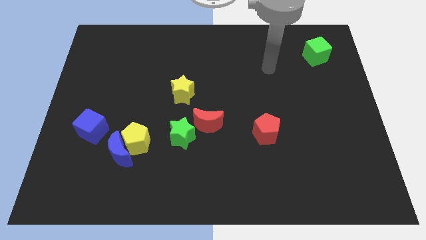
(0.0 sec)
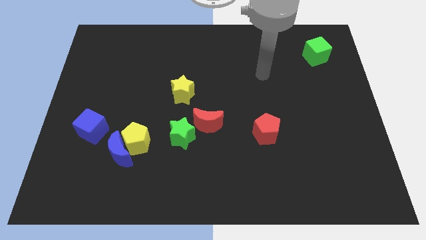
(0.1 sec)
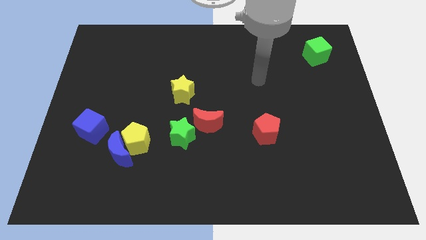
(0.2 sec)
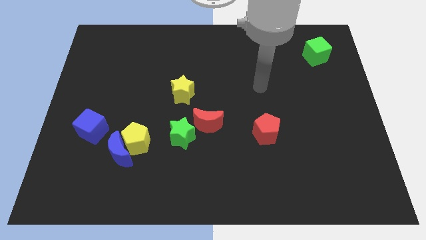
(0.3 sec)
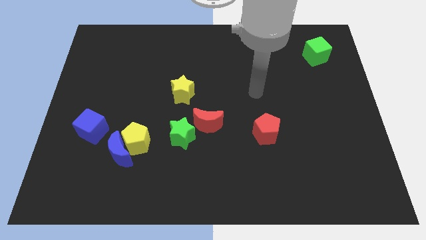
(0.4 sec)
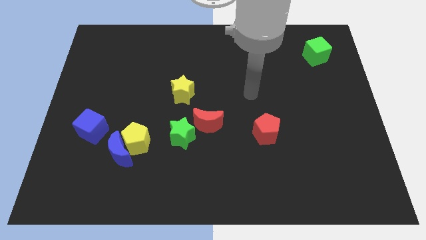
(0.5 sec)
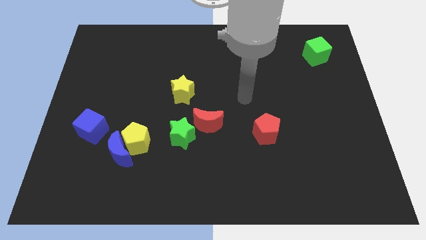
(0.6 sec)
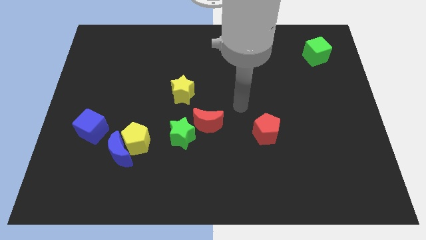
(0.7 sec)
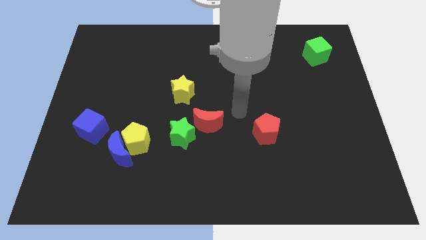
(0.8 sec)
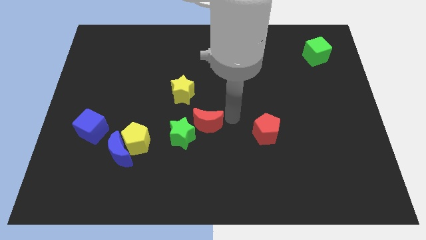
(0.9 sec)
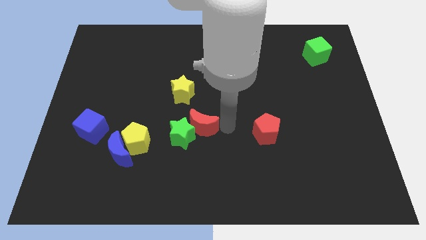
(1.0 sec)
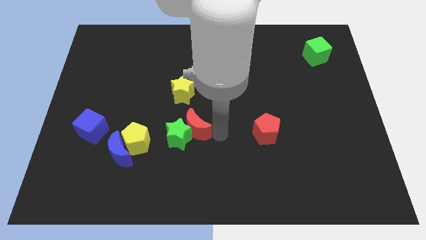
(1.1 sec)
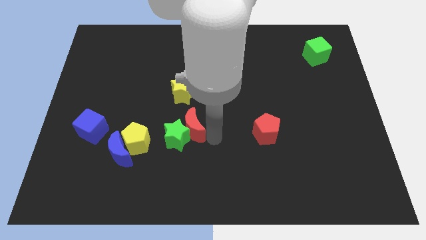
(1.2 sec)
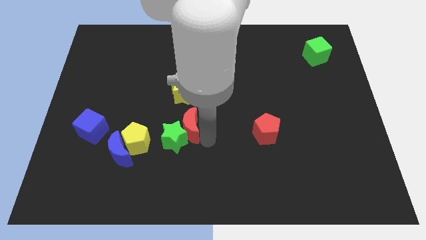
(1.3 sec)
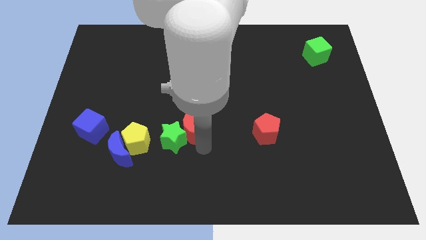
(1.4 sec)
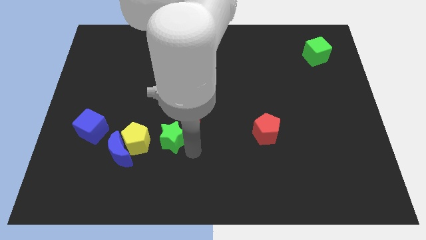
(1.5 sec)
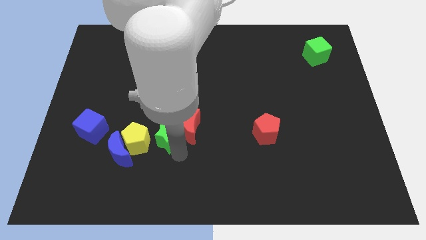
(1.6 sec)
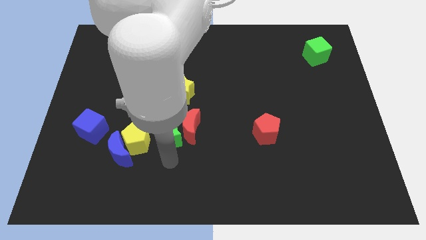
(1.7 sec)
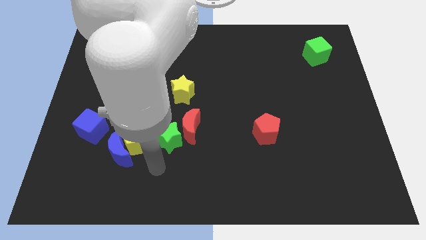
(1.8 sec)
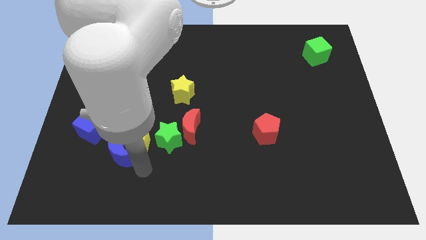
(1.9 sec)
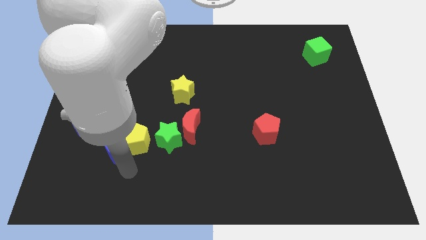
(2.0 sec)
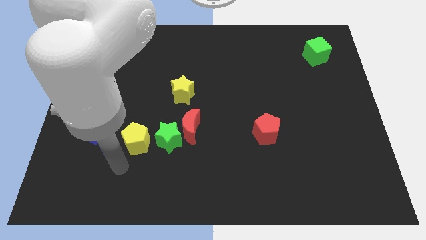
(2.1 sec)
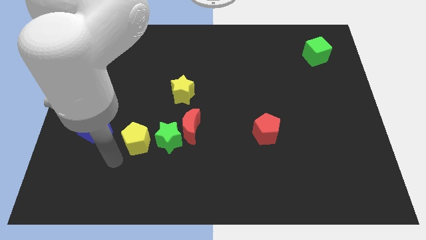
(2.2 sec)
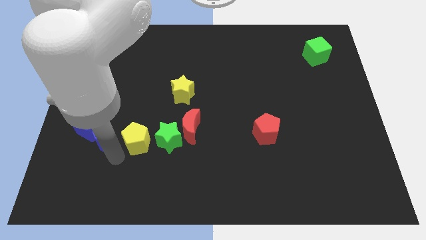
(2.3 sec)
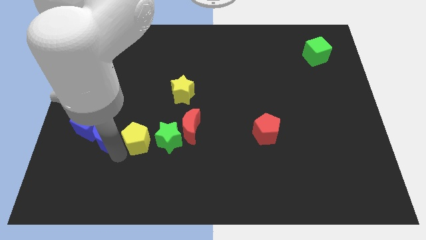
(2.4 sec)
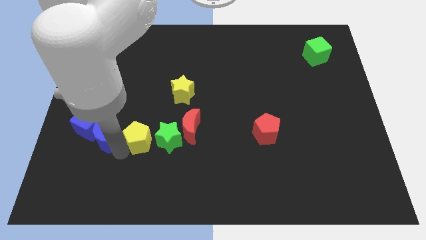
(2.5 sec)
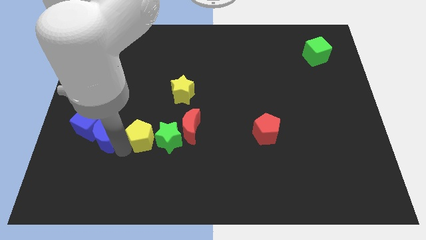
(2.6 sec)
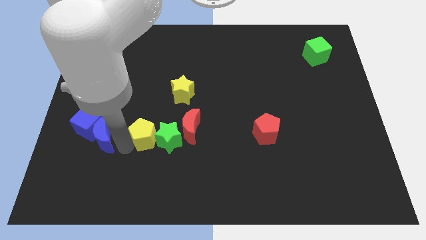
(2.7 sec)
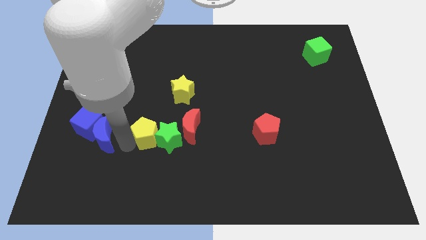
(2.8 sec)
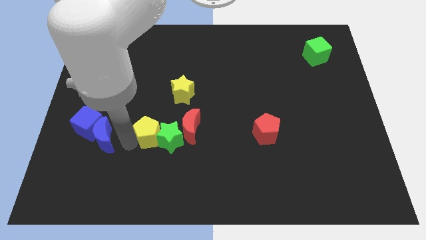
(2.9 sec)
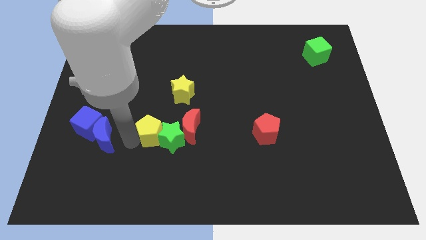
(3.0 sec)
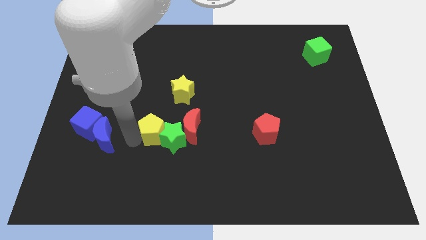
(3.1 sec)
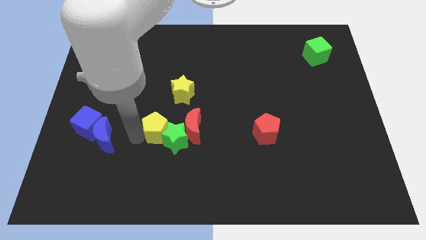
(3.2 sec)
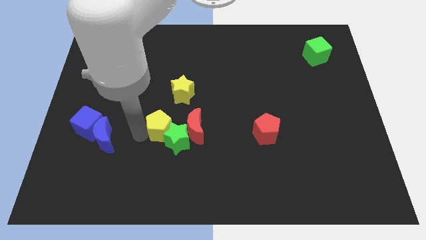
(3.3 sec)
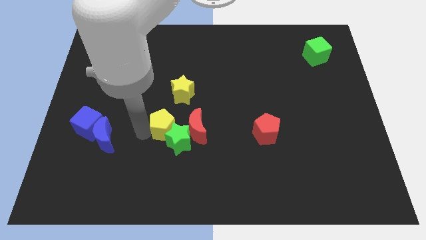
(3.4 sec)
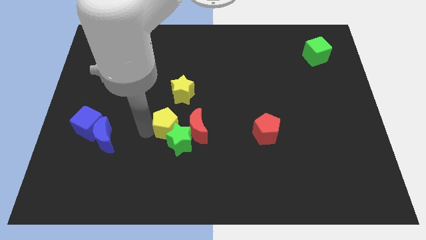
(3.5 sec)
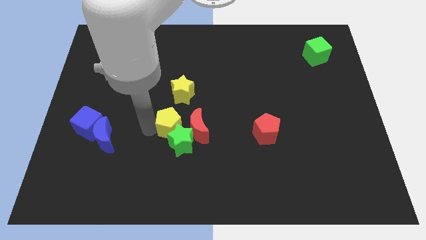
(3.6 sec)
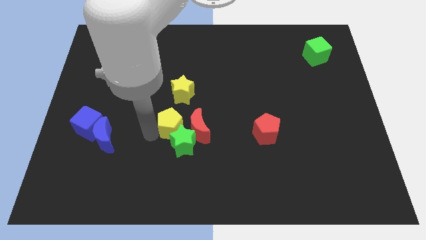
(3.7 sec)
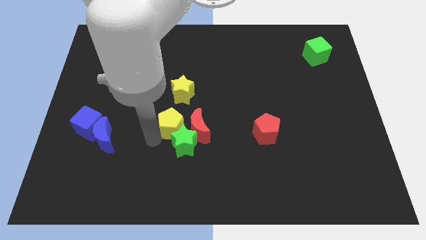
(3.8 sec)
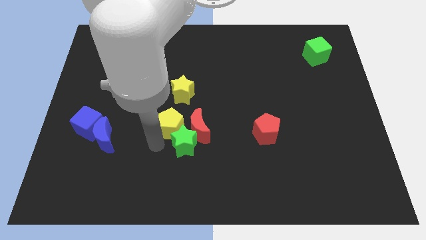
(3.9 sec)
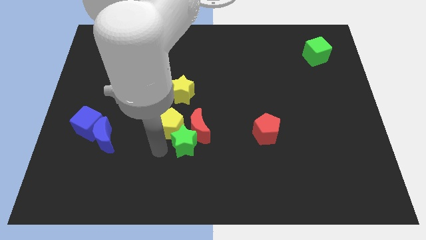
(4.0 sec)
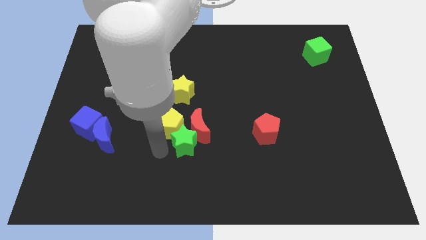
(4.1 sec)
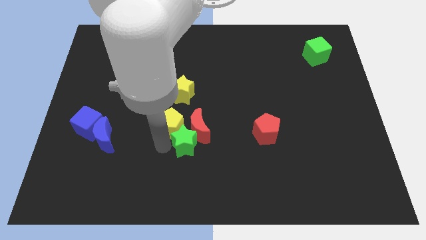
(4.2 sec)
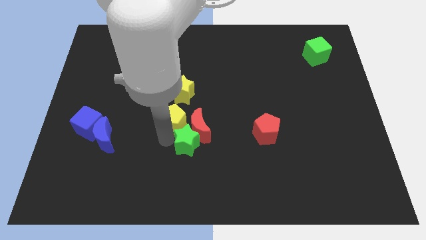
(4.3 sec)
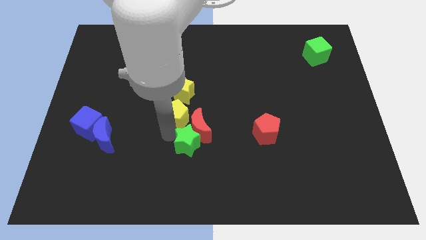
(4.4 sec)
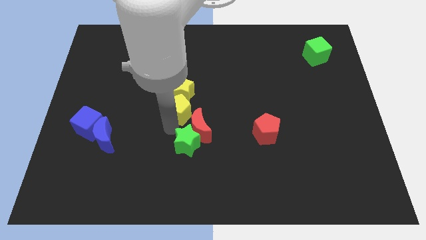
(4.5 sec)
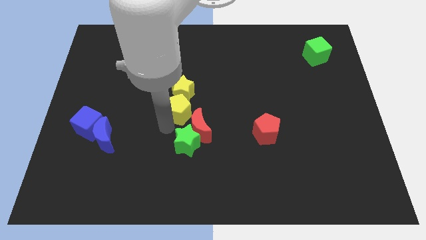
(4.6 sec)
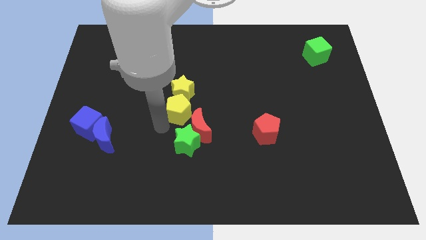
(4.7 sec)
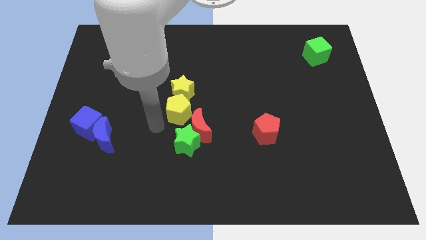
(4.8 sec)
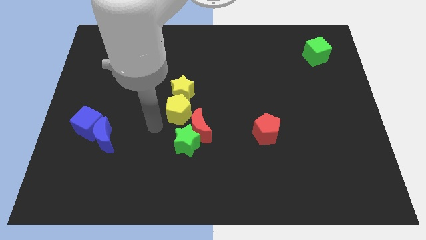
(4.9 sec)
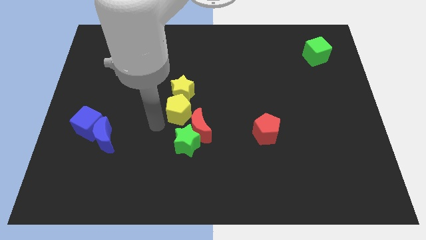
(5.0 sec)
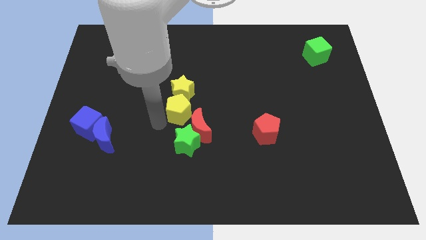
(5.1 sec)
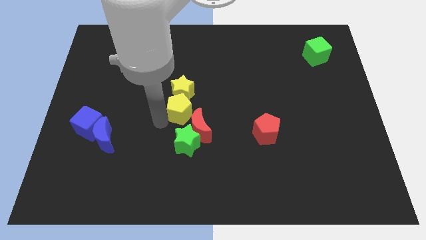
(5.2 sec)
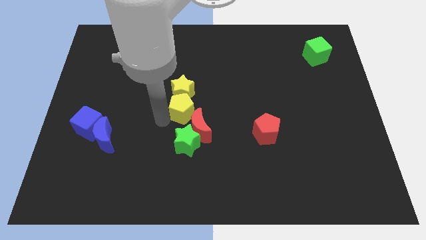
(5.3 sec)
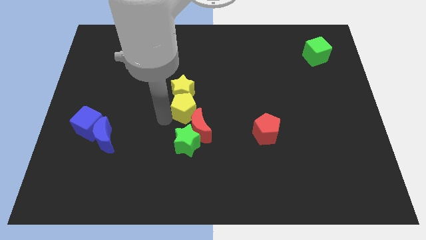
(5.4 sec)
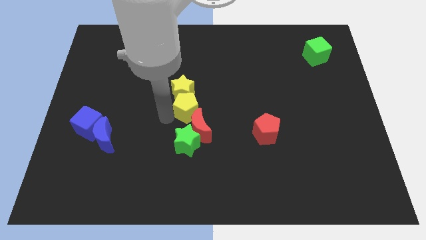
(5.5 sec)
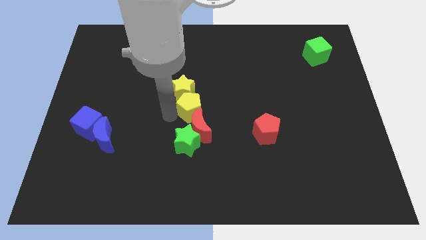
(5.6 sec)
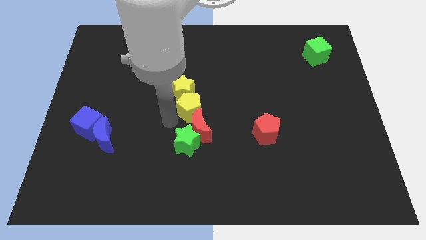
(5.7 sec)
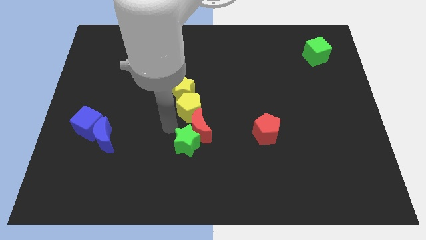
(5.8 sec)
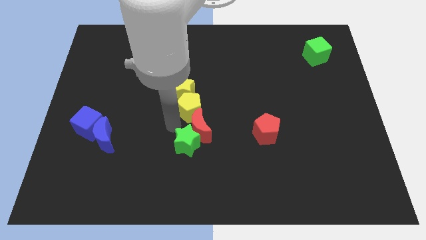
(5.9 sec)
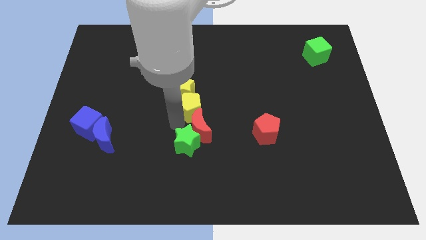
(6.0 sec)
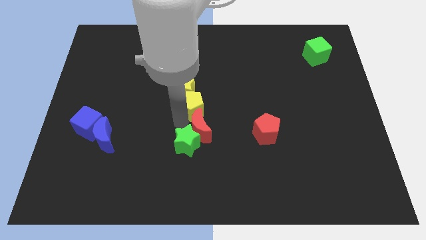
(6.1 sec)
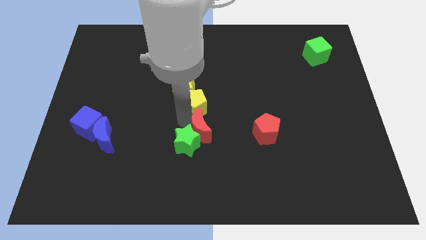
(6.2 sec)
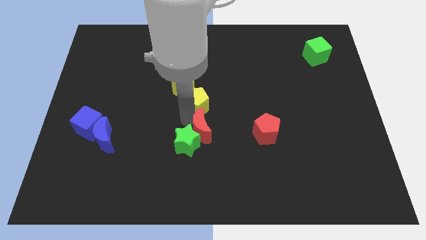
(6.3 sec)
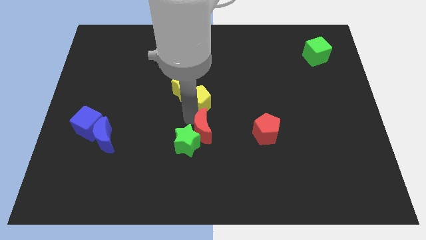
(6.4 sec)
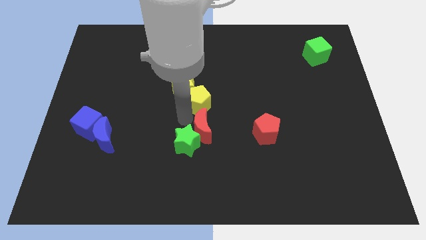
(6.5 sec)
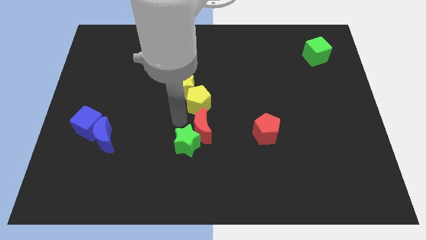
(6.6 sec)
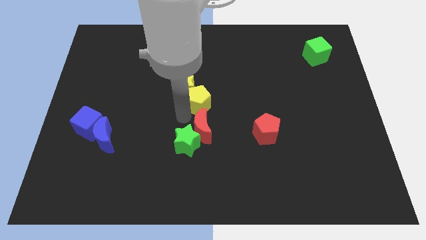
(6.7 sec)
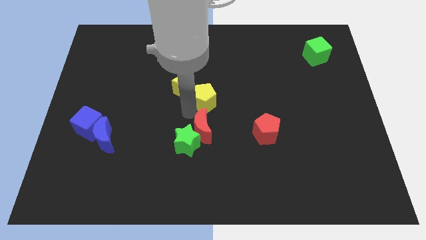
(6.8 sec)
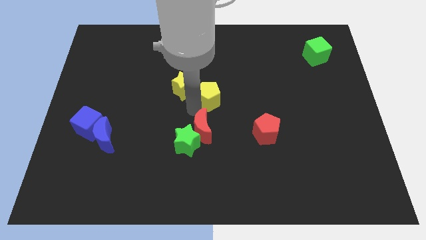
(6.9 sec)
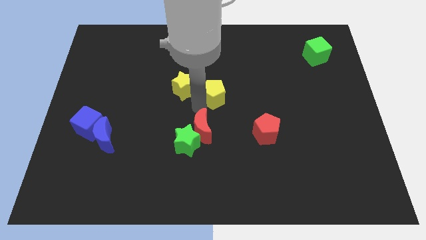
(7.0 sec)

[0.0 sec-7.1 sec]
move the yellow pentagon diagonally up and right

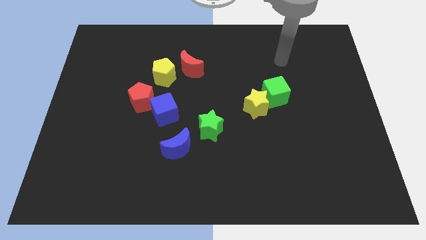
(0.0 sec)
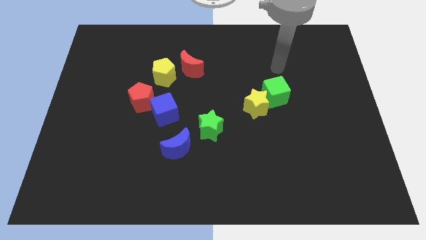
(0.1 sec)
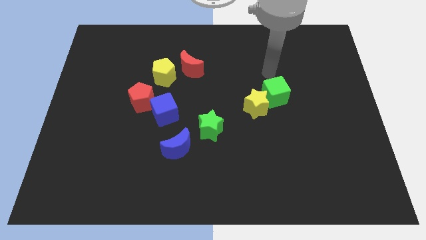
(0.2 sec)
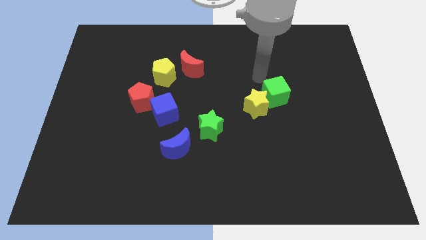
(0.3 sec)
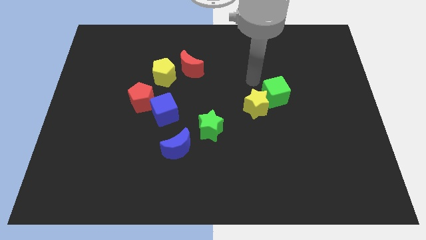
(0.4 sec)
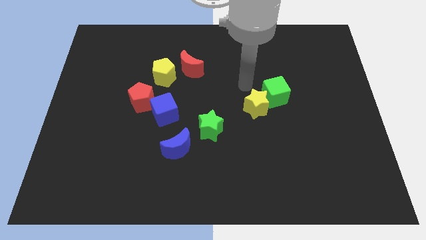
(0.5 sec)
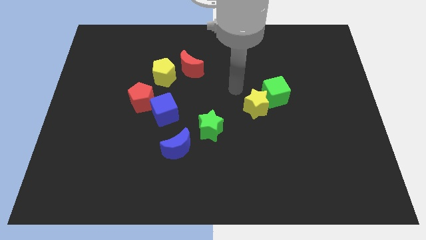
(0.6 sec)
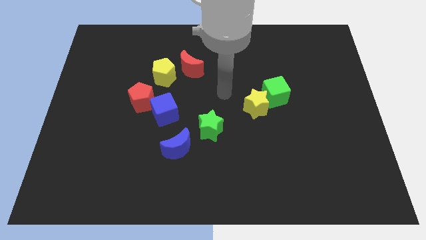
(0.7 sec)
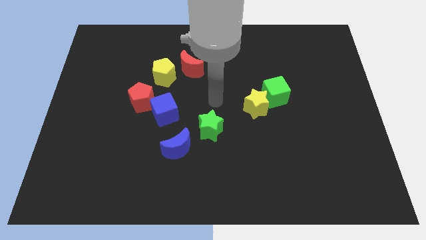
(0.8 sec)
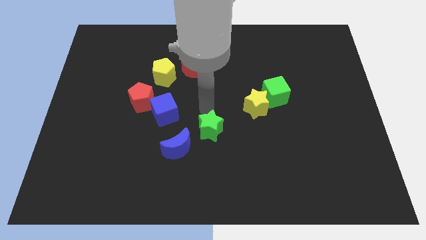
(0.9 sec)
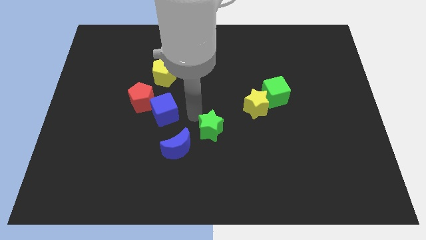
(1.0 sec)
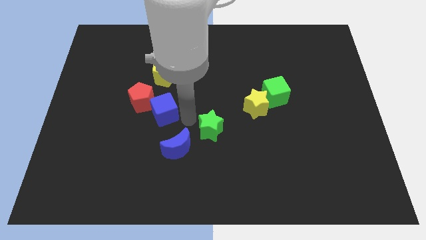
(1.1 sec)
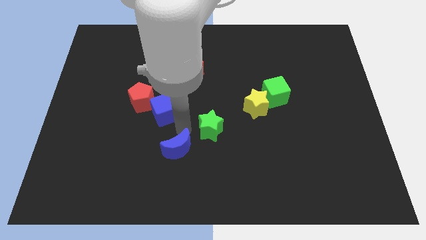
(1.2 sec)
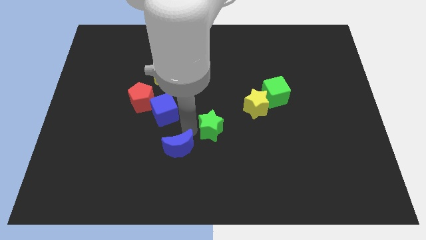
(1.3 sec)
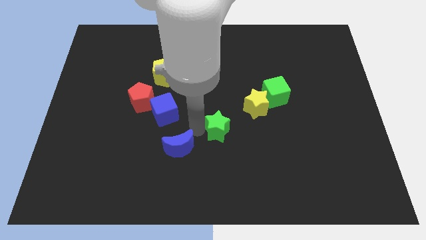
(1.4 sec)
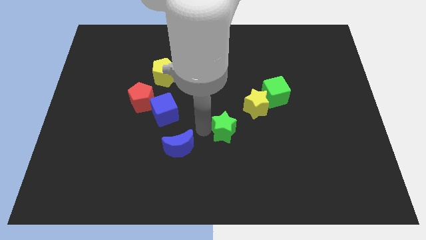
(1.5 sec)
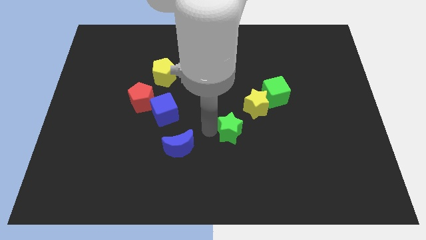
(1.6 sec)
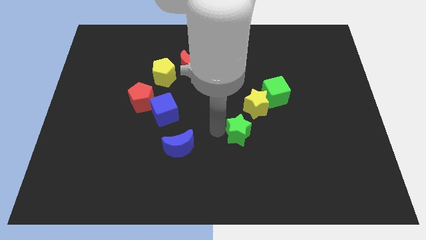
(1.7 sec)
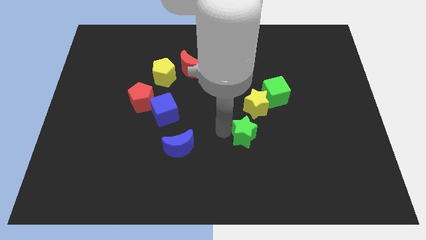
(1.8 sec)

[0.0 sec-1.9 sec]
slightly slide the green star right
